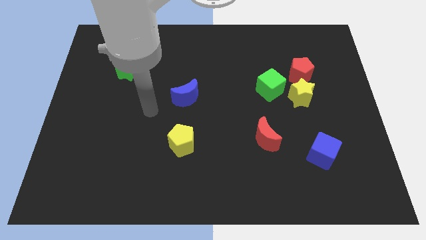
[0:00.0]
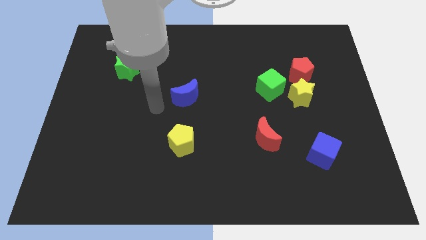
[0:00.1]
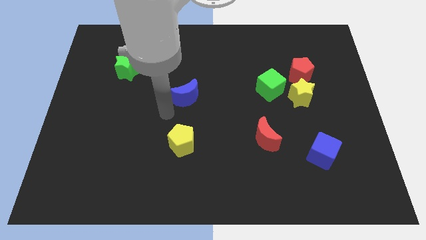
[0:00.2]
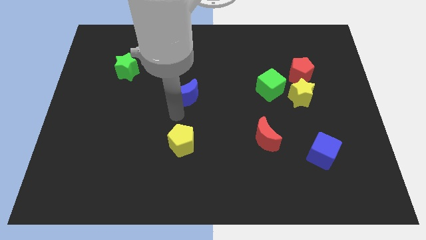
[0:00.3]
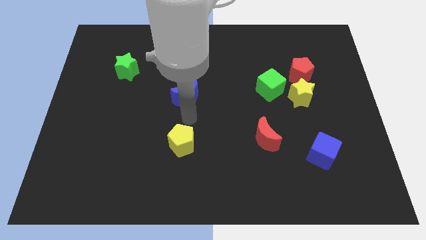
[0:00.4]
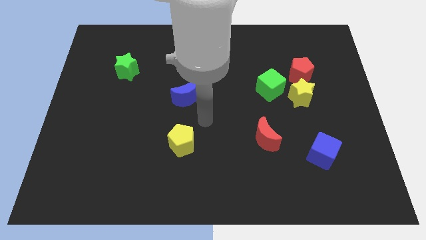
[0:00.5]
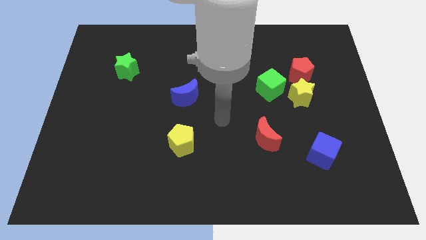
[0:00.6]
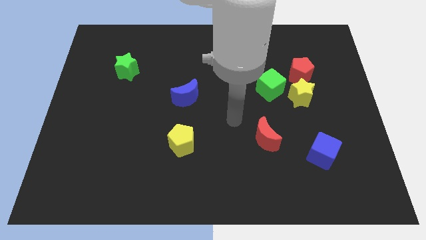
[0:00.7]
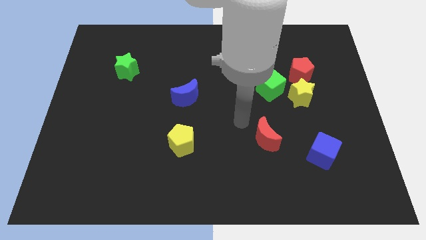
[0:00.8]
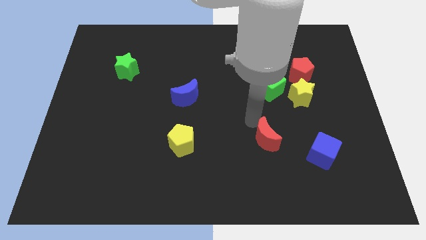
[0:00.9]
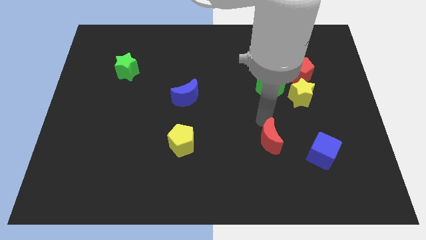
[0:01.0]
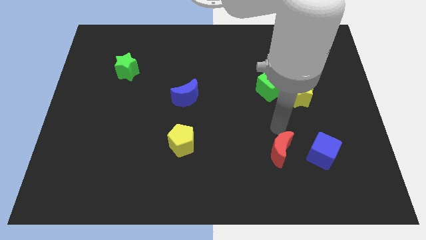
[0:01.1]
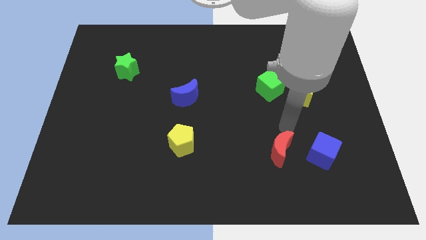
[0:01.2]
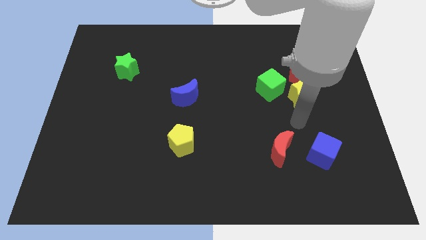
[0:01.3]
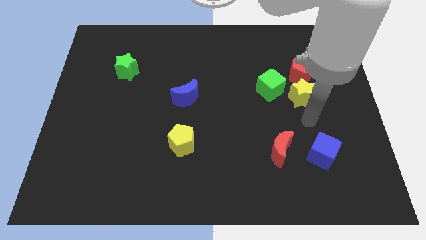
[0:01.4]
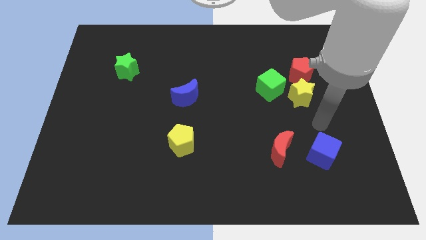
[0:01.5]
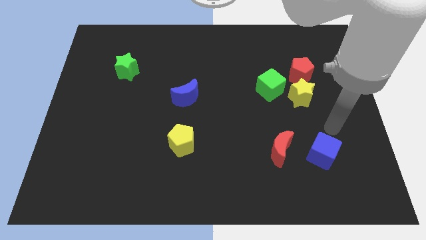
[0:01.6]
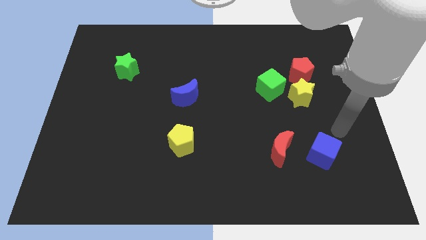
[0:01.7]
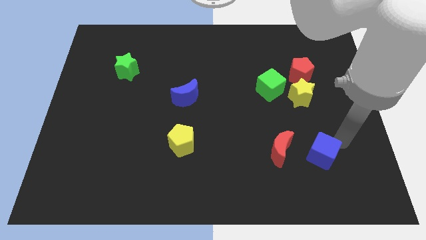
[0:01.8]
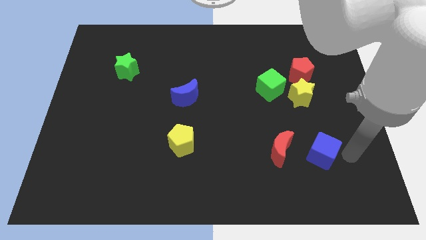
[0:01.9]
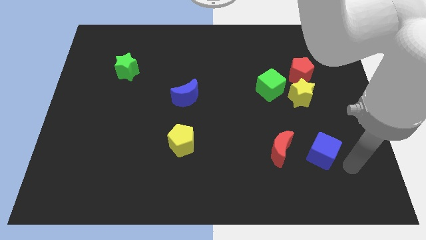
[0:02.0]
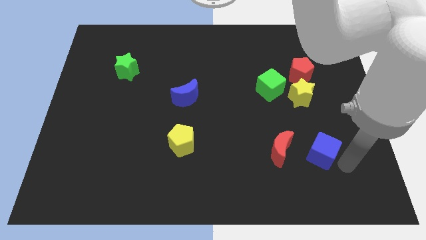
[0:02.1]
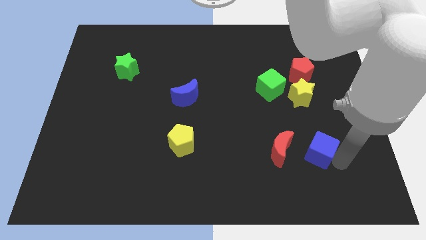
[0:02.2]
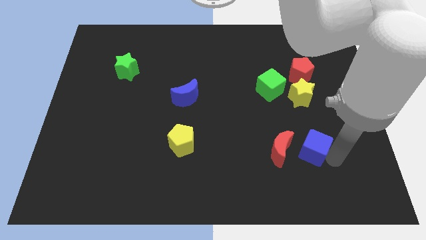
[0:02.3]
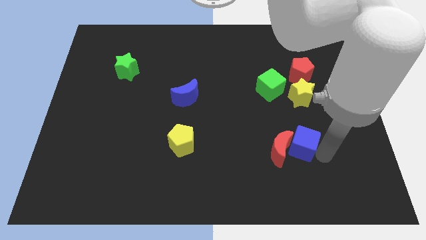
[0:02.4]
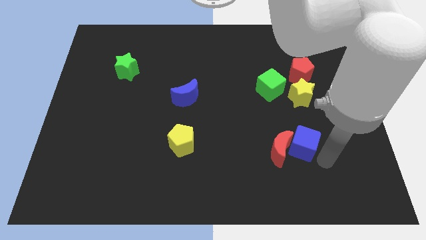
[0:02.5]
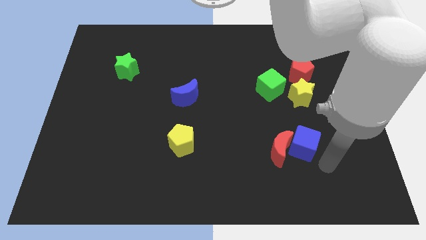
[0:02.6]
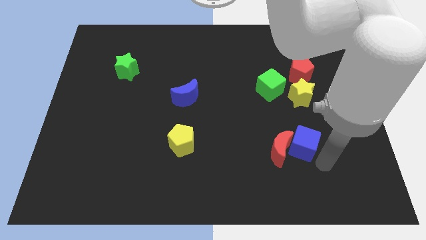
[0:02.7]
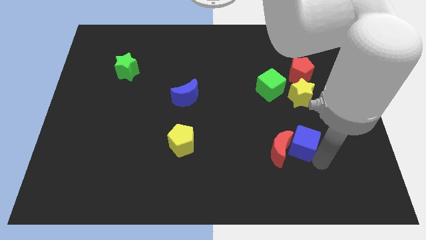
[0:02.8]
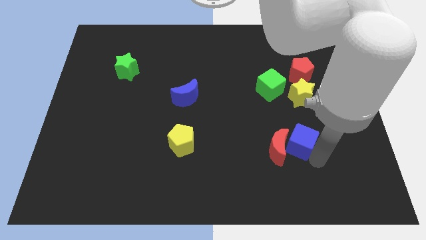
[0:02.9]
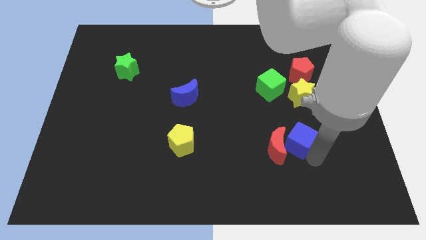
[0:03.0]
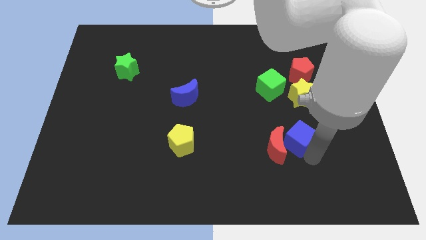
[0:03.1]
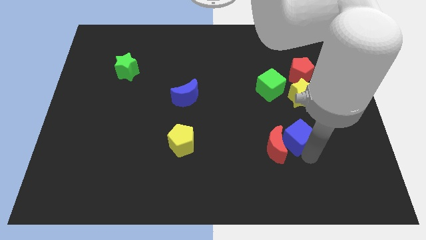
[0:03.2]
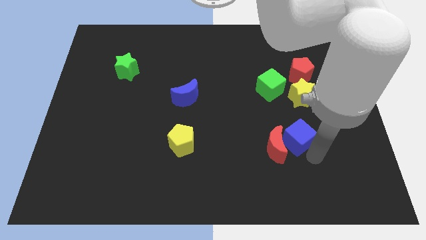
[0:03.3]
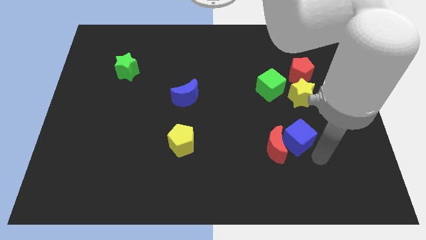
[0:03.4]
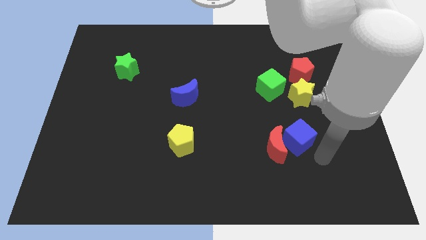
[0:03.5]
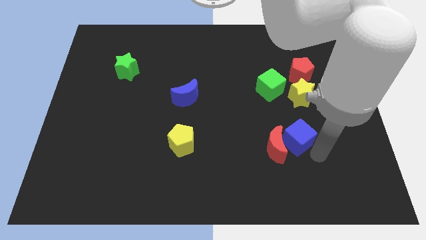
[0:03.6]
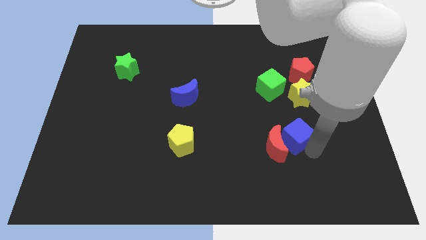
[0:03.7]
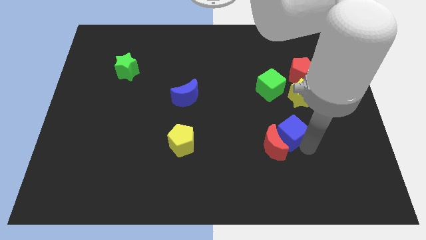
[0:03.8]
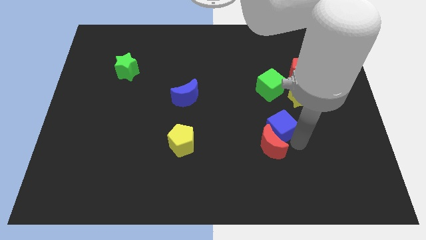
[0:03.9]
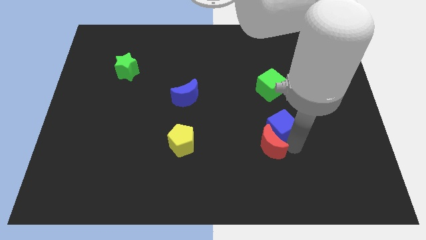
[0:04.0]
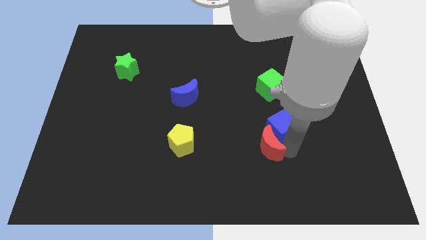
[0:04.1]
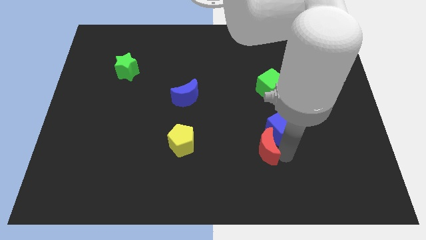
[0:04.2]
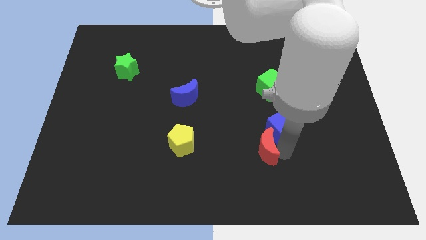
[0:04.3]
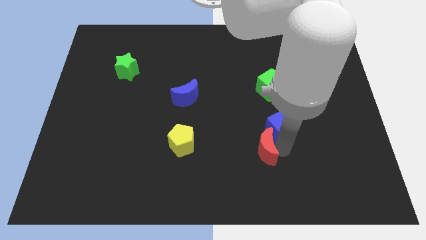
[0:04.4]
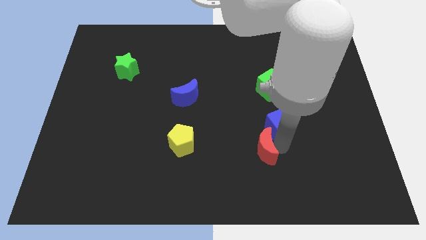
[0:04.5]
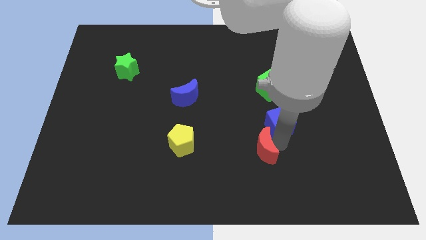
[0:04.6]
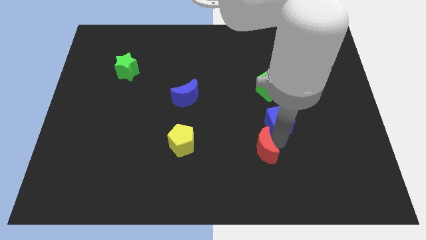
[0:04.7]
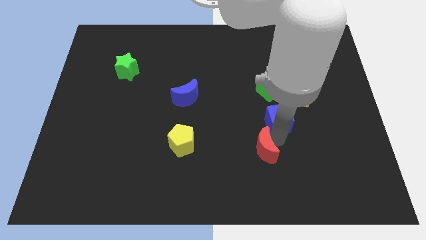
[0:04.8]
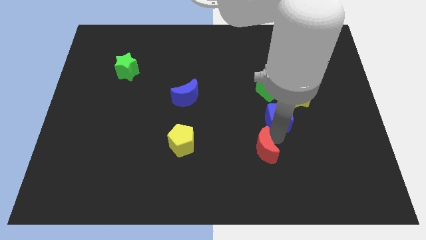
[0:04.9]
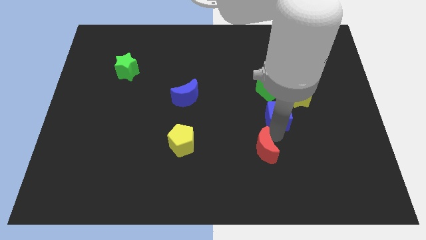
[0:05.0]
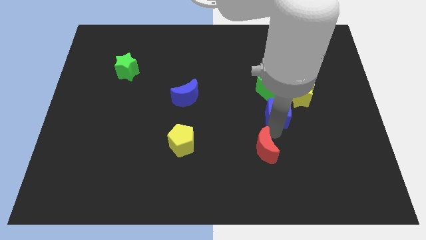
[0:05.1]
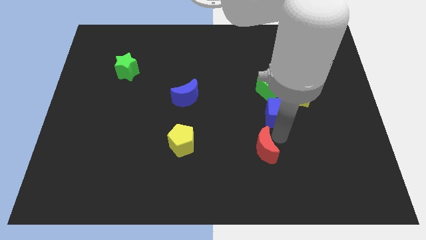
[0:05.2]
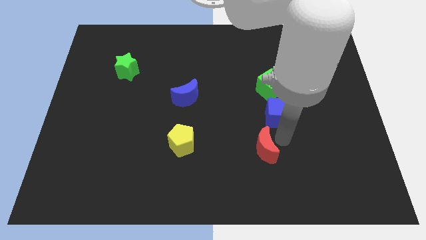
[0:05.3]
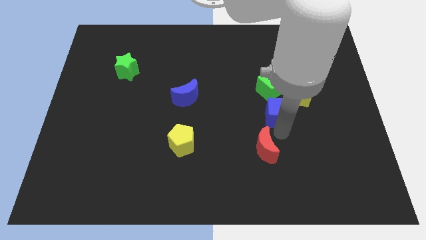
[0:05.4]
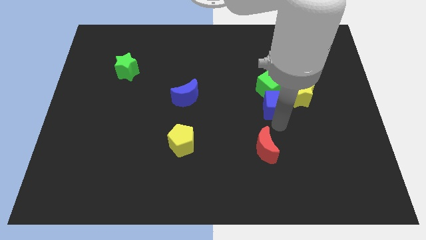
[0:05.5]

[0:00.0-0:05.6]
push the blue cube next to the green cube

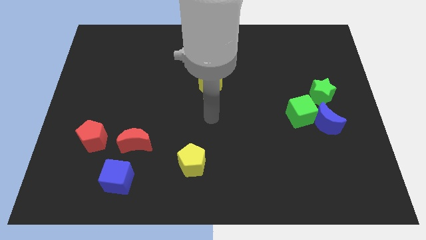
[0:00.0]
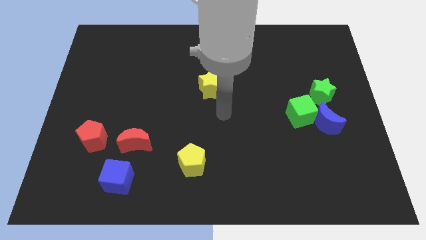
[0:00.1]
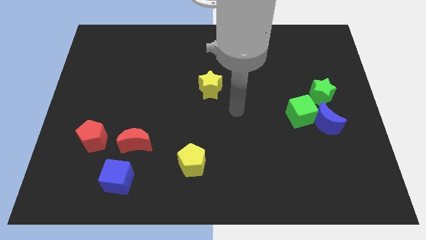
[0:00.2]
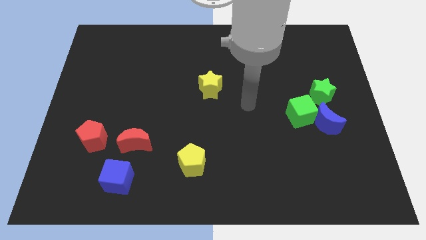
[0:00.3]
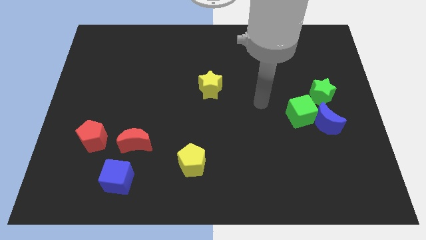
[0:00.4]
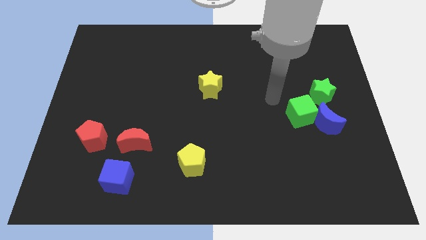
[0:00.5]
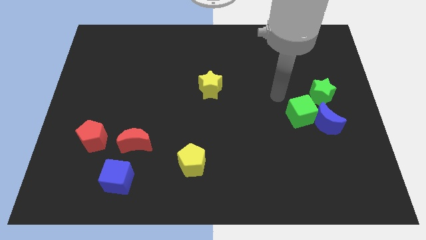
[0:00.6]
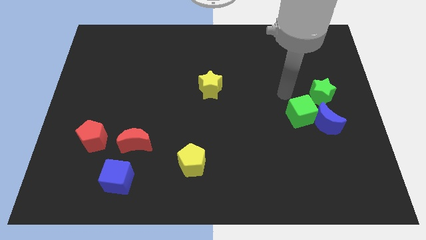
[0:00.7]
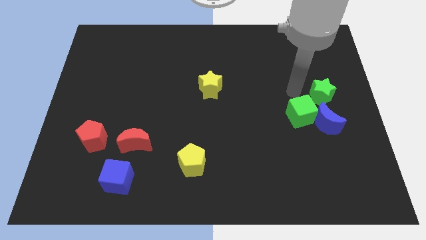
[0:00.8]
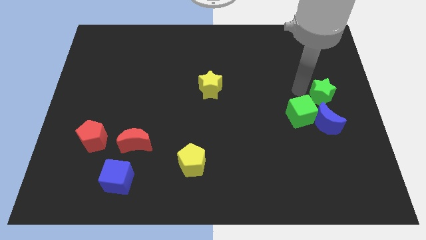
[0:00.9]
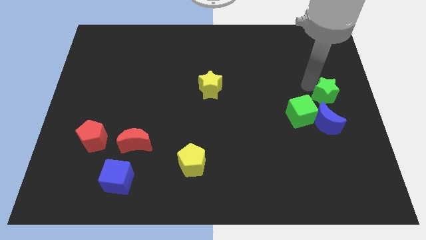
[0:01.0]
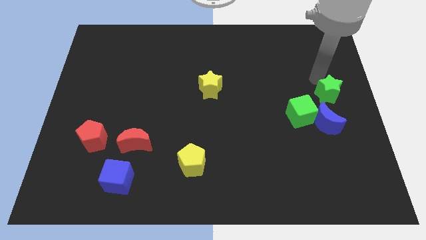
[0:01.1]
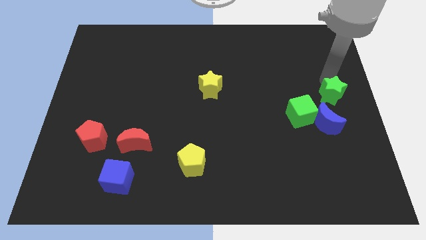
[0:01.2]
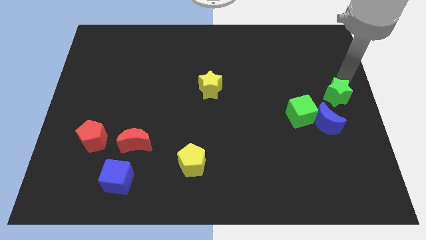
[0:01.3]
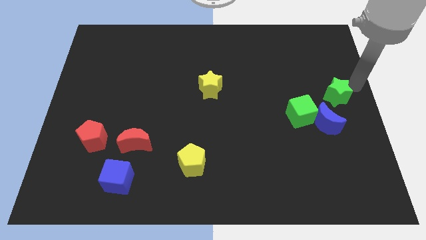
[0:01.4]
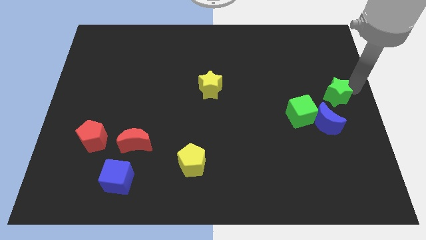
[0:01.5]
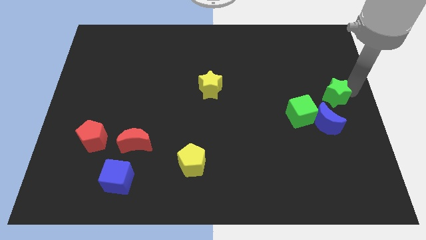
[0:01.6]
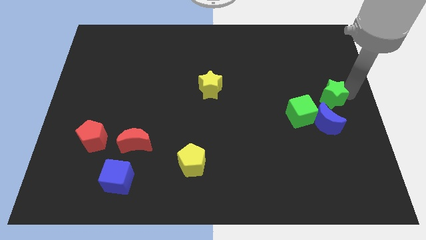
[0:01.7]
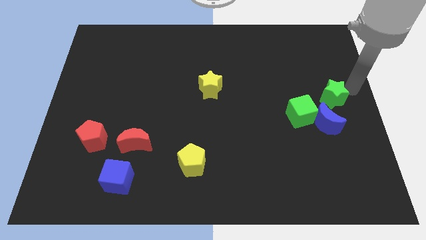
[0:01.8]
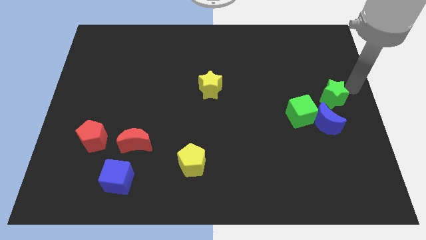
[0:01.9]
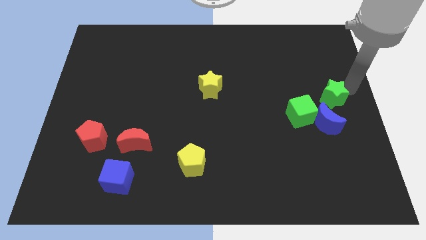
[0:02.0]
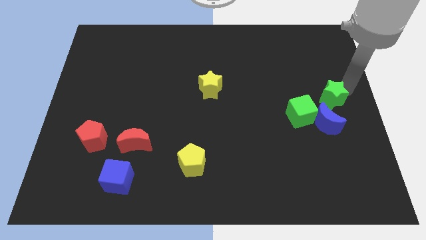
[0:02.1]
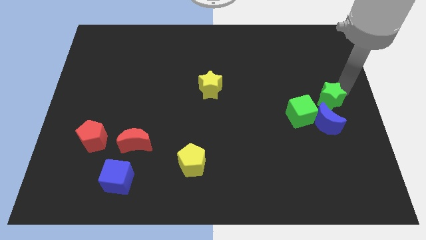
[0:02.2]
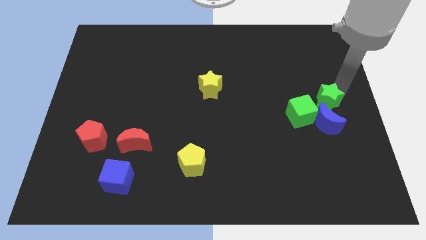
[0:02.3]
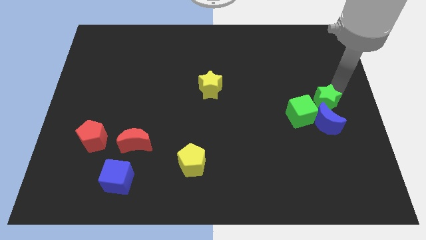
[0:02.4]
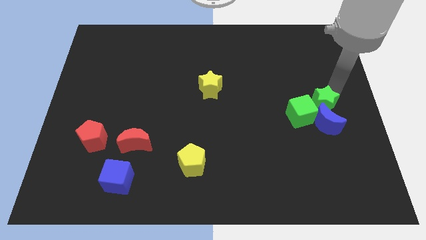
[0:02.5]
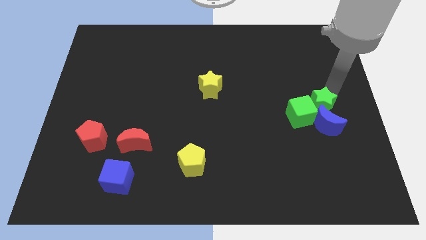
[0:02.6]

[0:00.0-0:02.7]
put the green star next to the green cube

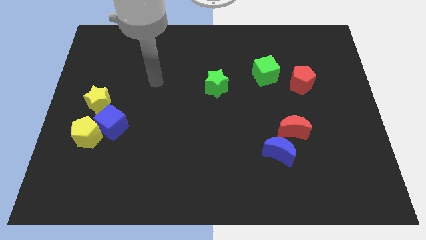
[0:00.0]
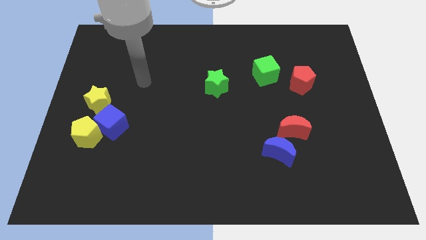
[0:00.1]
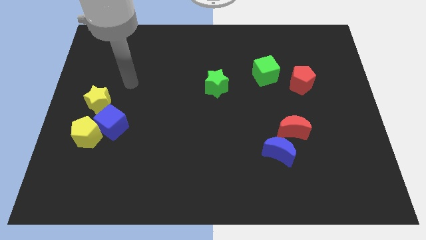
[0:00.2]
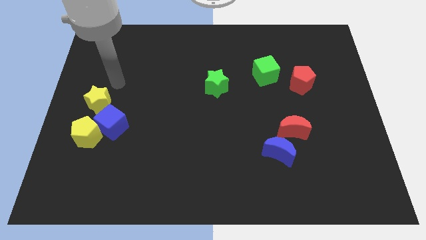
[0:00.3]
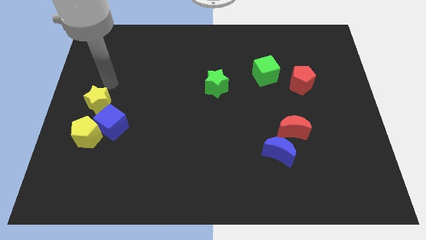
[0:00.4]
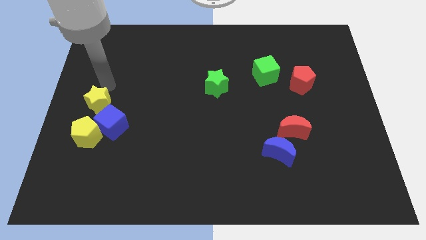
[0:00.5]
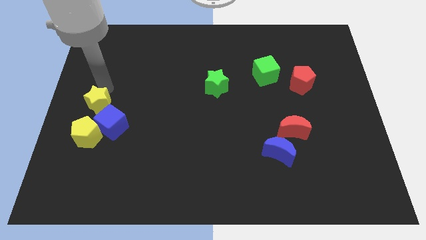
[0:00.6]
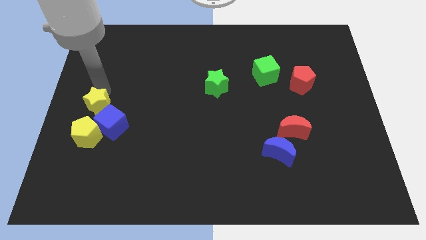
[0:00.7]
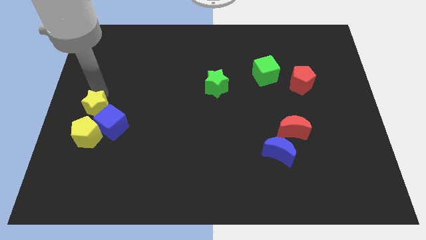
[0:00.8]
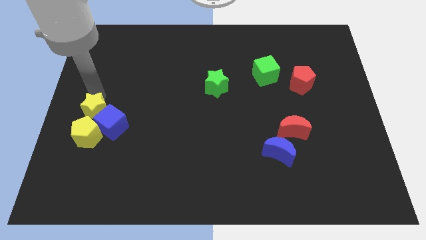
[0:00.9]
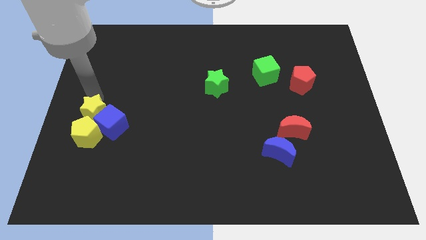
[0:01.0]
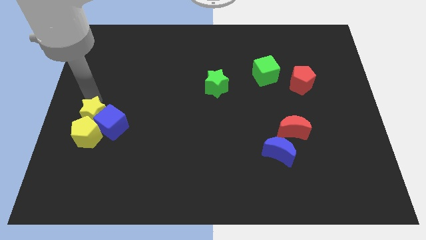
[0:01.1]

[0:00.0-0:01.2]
put the yellow star to the yellow pentagon
